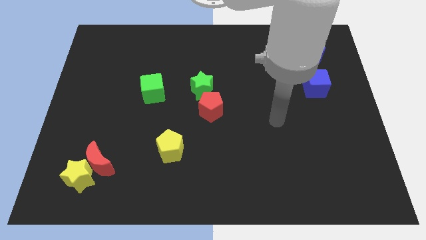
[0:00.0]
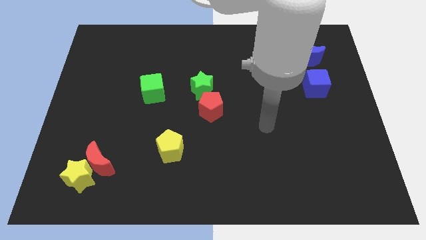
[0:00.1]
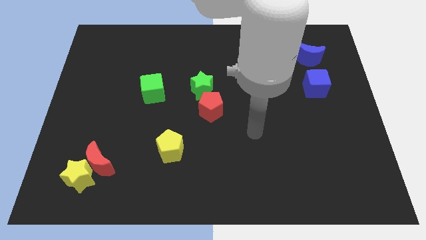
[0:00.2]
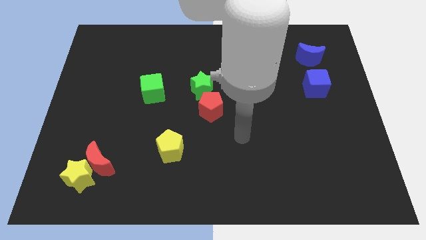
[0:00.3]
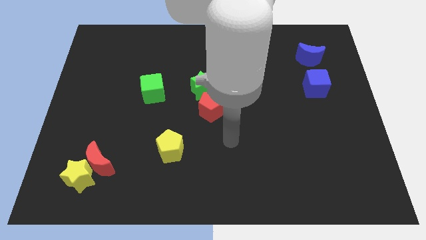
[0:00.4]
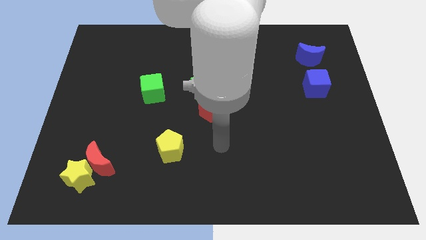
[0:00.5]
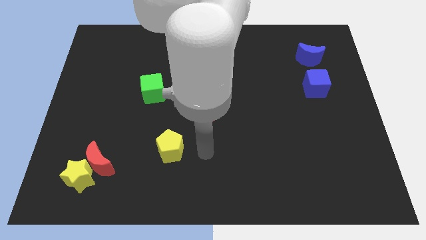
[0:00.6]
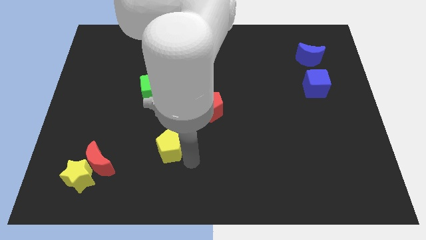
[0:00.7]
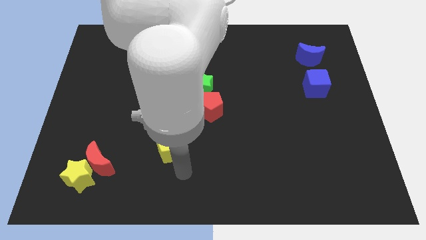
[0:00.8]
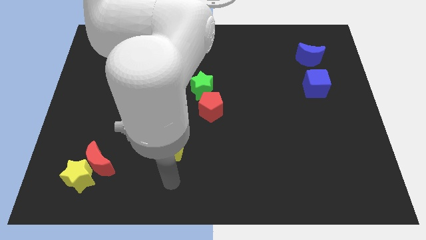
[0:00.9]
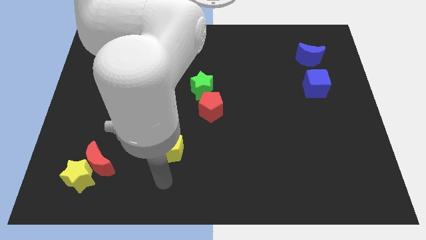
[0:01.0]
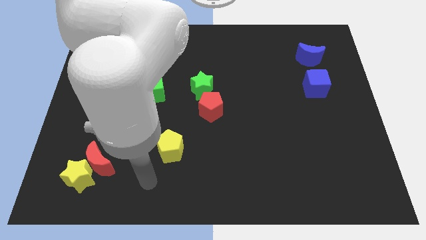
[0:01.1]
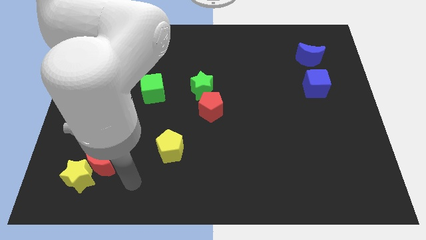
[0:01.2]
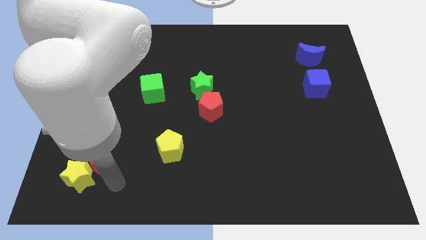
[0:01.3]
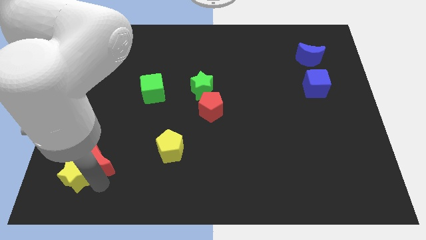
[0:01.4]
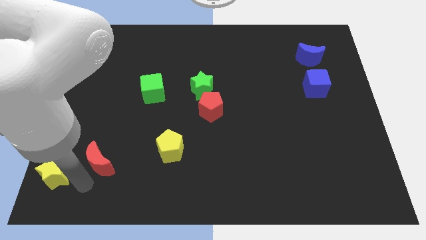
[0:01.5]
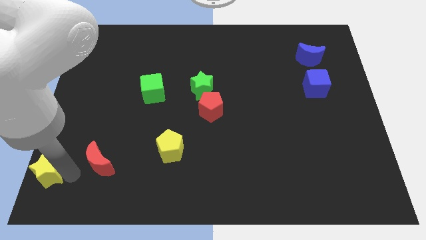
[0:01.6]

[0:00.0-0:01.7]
separate the red moon from the yellow star

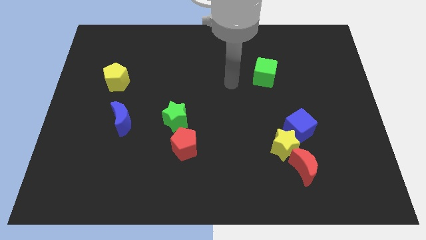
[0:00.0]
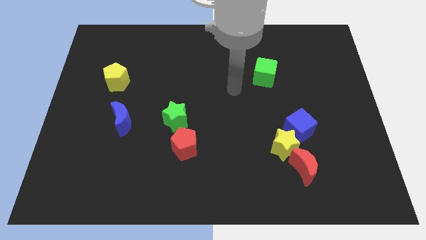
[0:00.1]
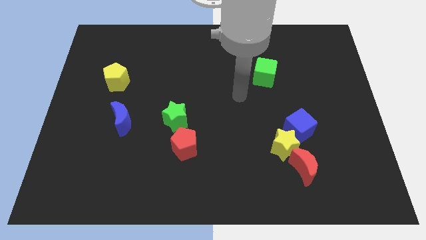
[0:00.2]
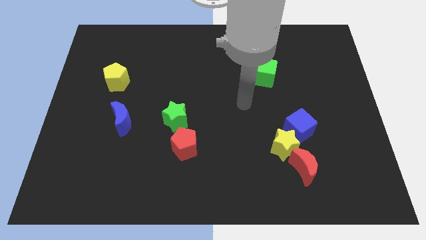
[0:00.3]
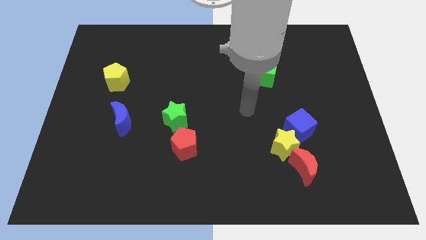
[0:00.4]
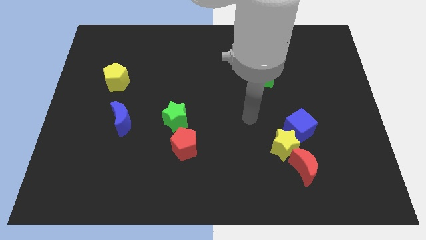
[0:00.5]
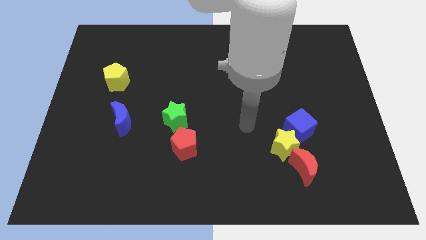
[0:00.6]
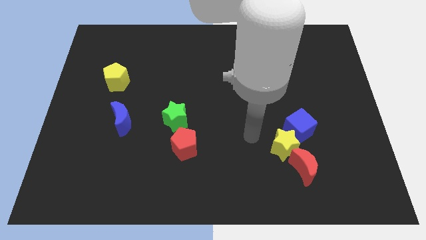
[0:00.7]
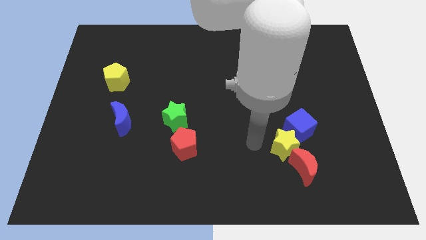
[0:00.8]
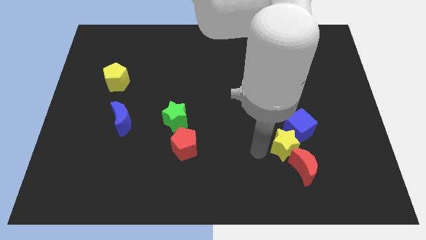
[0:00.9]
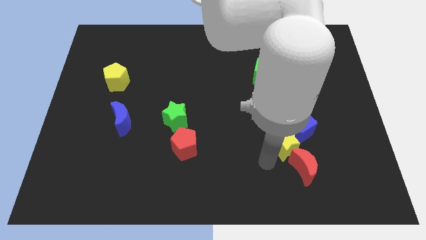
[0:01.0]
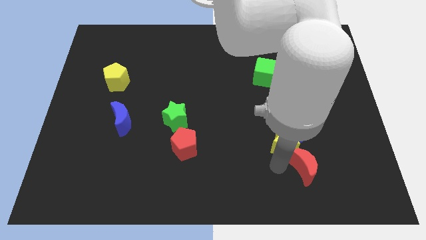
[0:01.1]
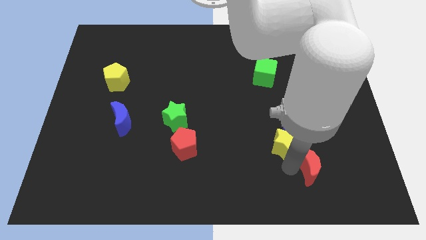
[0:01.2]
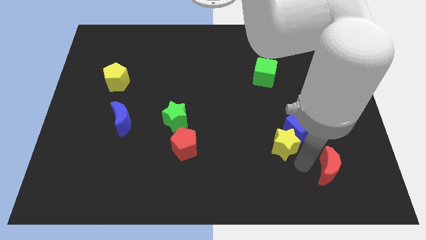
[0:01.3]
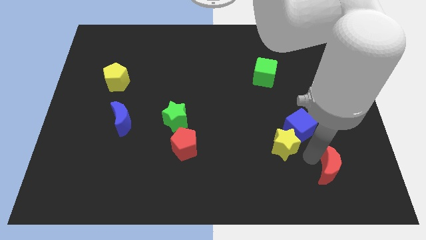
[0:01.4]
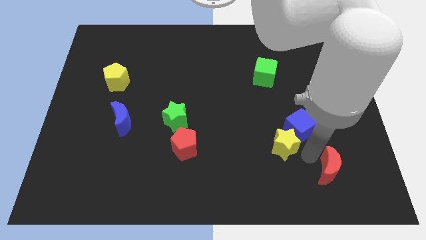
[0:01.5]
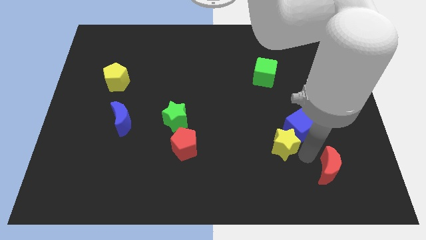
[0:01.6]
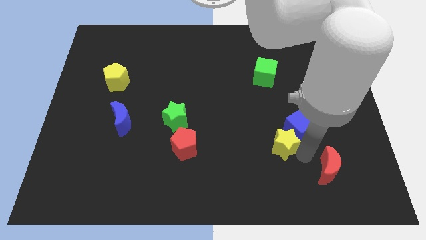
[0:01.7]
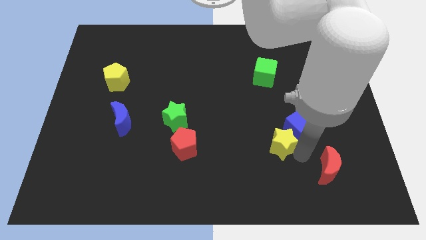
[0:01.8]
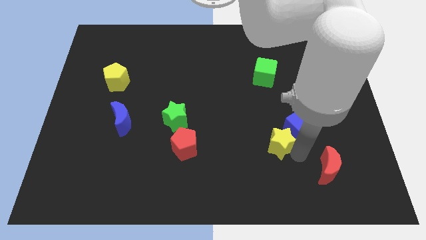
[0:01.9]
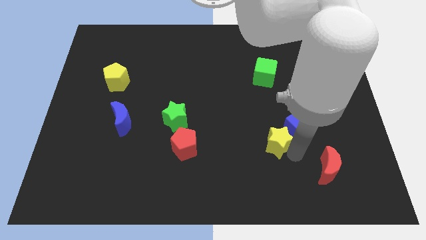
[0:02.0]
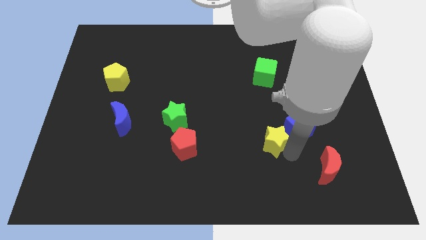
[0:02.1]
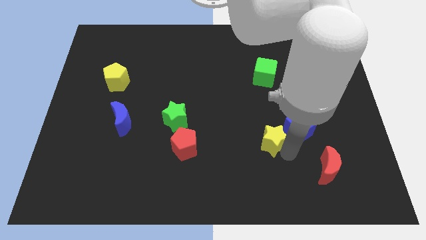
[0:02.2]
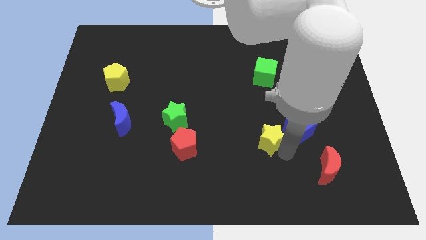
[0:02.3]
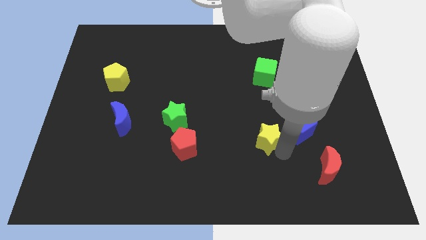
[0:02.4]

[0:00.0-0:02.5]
separate the yellow star from the blue cube and red moon

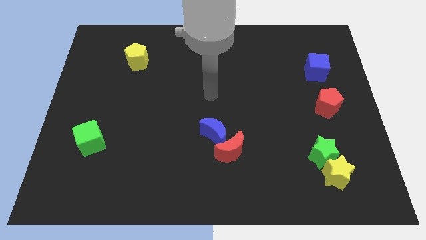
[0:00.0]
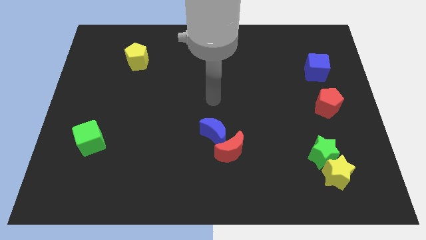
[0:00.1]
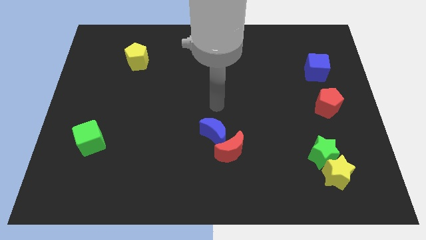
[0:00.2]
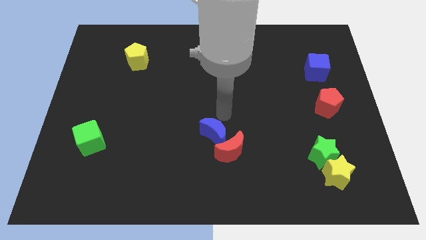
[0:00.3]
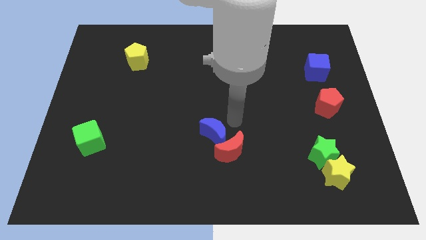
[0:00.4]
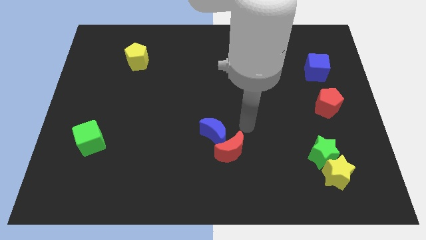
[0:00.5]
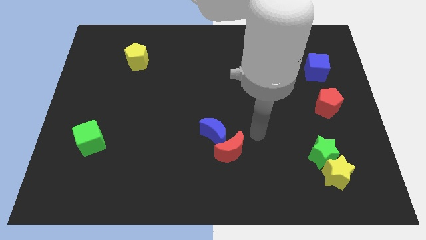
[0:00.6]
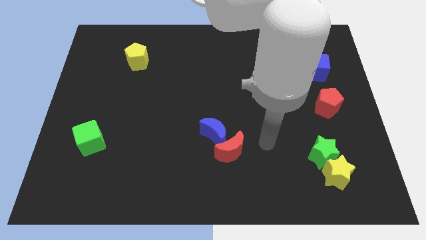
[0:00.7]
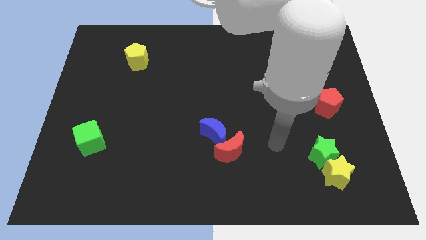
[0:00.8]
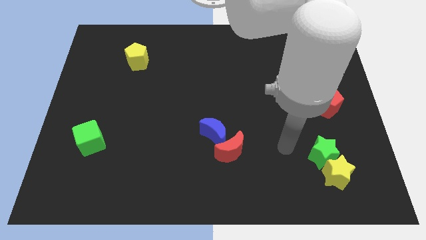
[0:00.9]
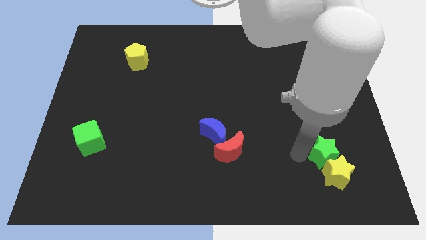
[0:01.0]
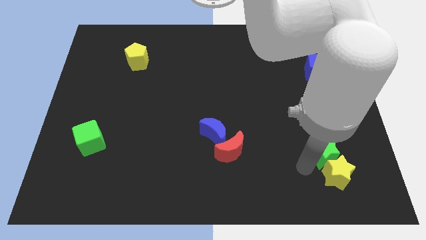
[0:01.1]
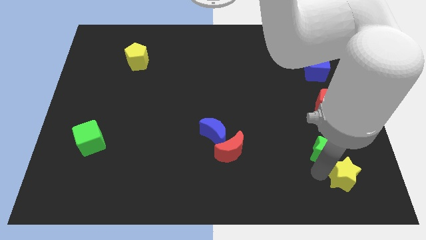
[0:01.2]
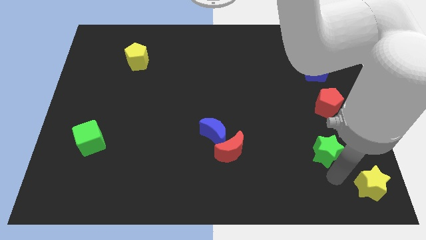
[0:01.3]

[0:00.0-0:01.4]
separate the green star from the yellow star

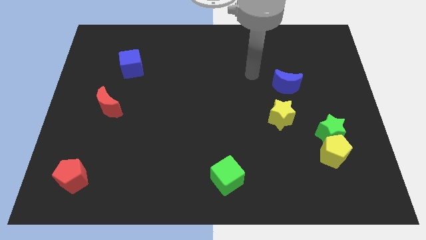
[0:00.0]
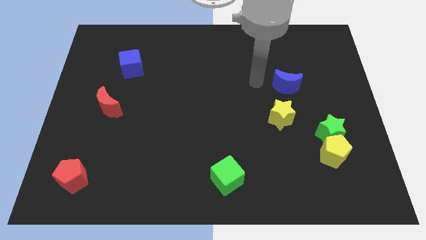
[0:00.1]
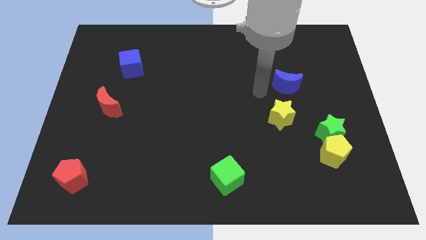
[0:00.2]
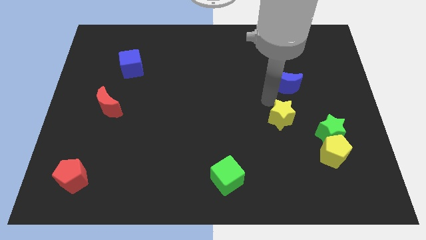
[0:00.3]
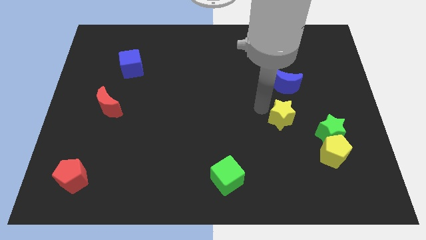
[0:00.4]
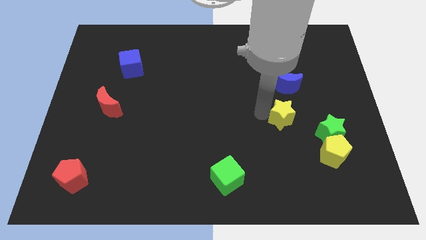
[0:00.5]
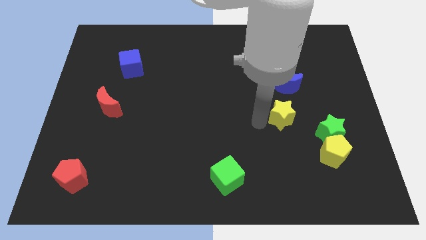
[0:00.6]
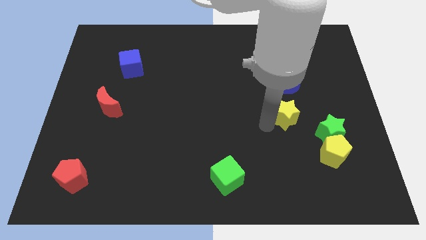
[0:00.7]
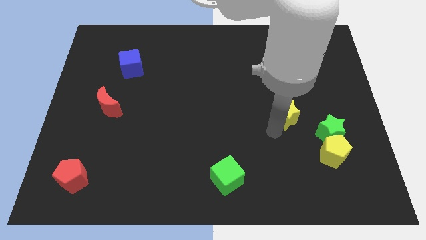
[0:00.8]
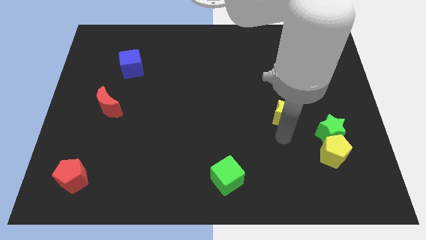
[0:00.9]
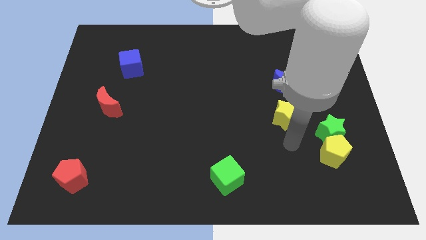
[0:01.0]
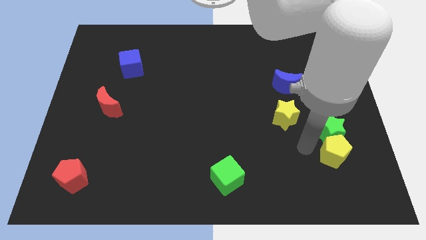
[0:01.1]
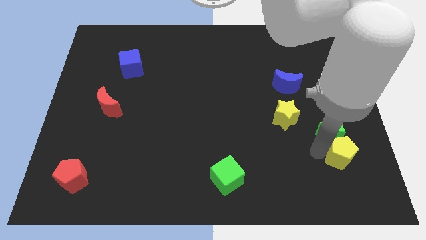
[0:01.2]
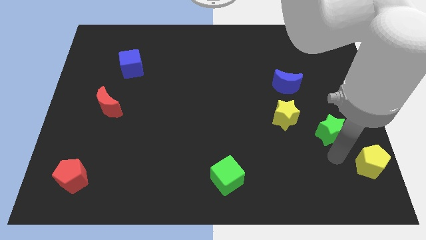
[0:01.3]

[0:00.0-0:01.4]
pull the green star apart from the yellow pentagon

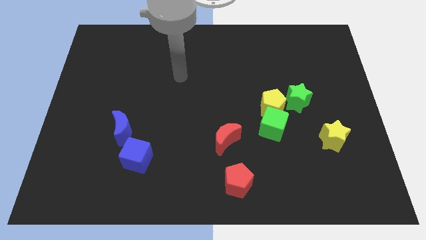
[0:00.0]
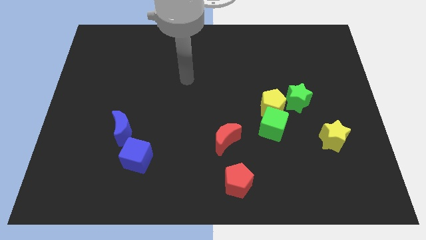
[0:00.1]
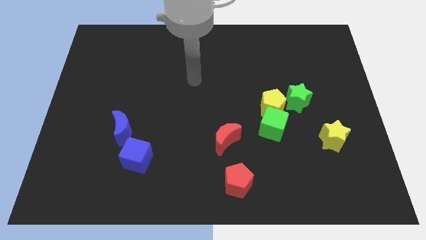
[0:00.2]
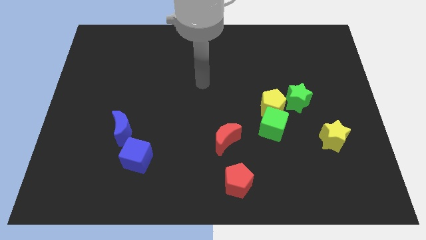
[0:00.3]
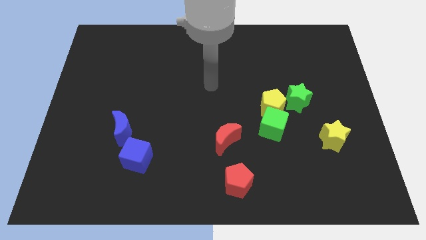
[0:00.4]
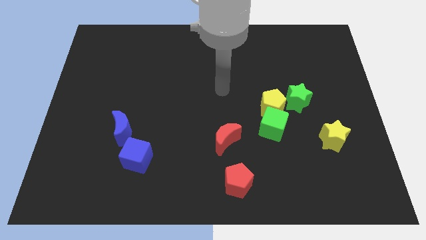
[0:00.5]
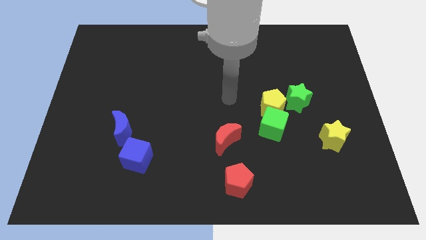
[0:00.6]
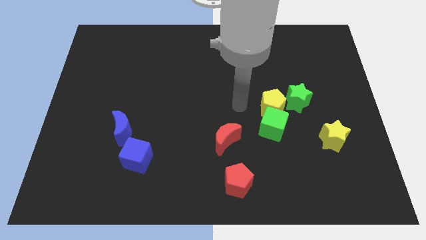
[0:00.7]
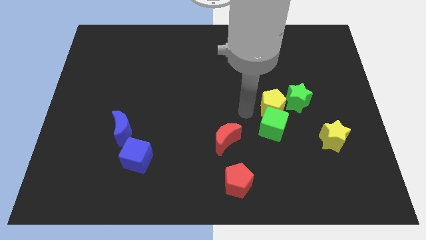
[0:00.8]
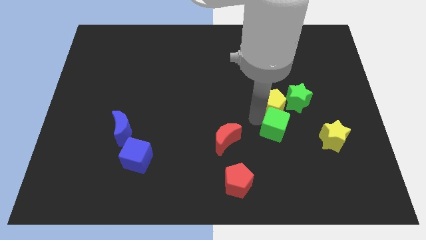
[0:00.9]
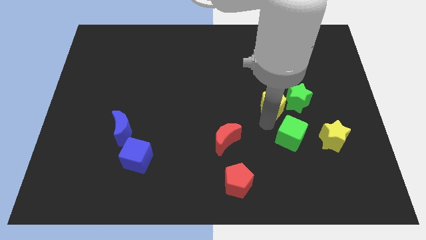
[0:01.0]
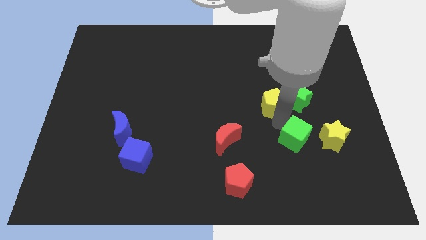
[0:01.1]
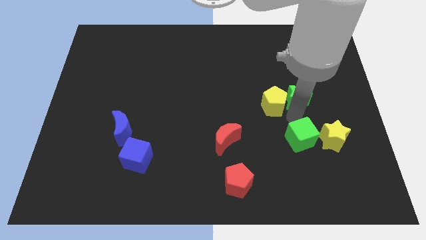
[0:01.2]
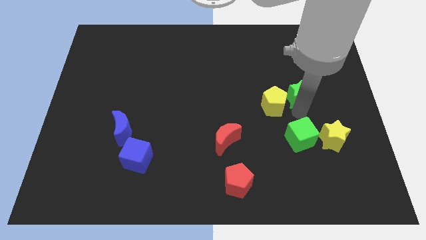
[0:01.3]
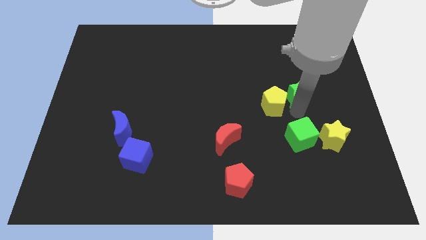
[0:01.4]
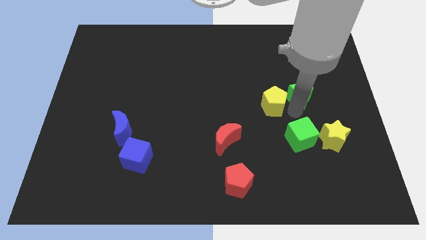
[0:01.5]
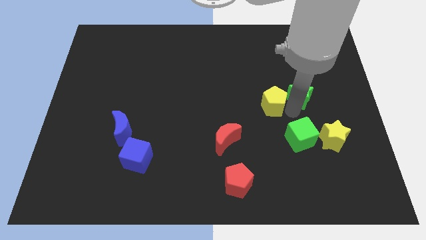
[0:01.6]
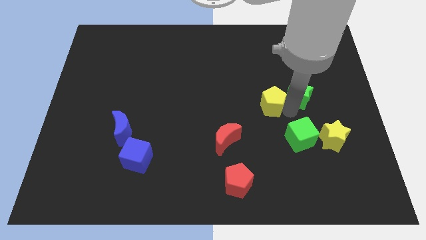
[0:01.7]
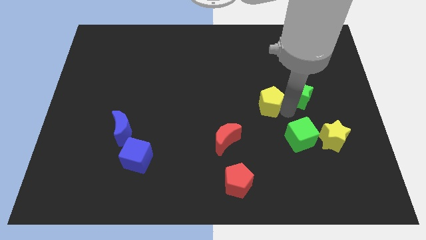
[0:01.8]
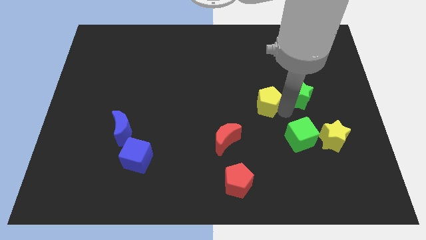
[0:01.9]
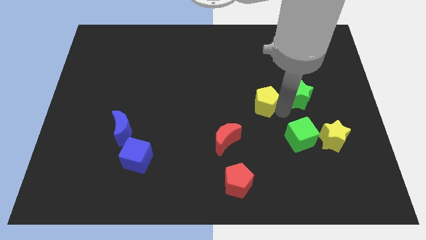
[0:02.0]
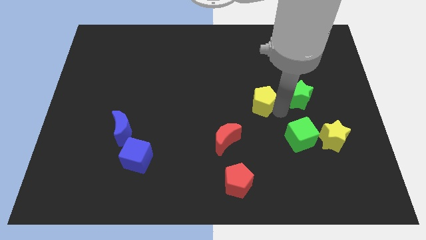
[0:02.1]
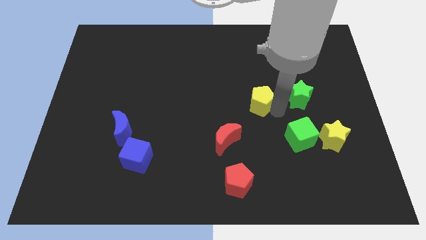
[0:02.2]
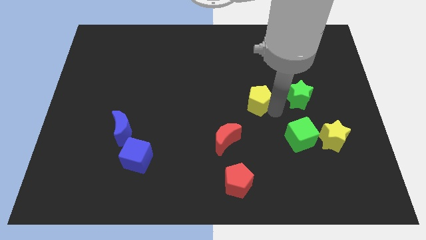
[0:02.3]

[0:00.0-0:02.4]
pull the yellow pentagon apart from the green cube and green star

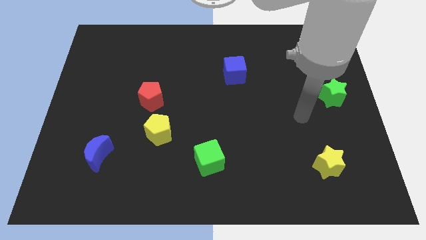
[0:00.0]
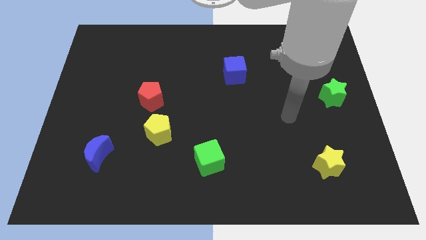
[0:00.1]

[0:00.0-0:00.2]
pull the red pentagon apart from the yellow pentagon
